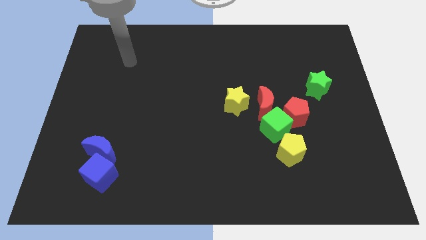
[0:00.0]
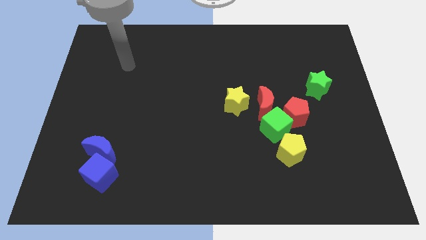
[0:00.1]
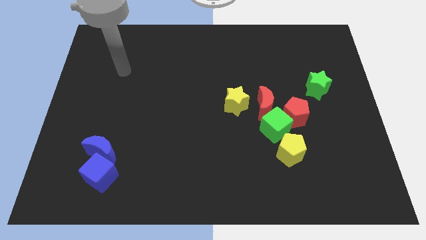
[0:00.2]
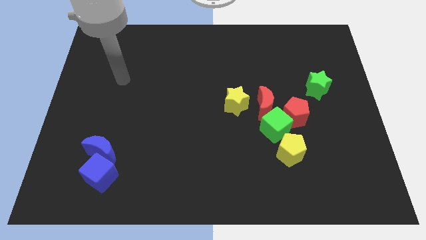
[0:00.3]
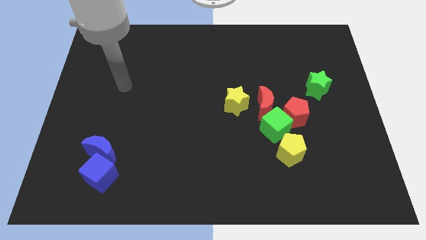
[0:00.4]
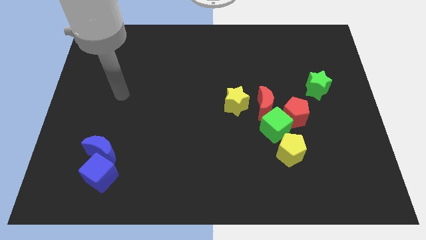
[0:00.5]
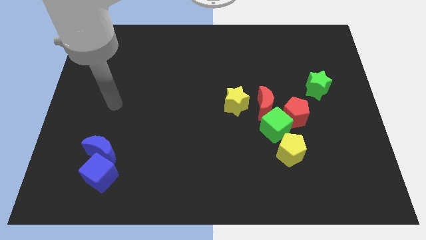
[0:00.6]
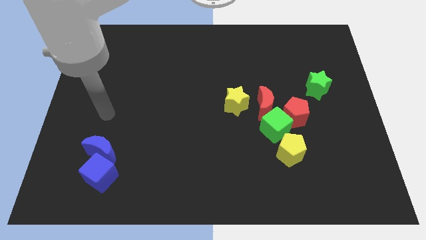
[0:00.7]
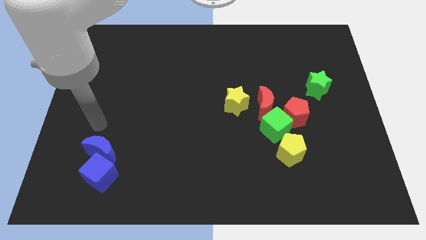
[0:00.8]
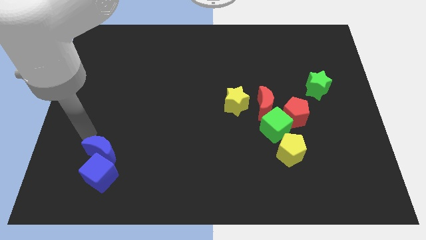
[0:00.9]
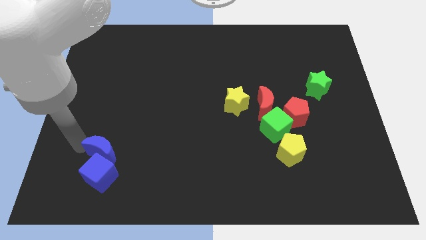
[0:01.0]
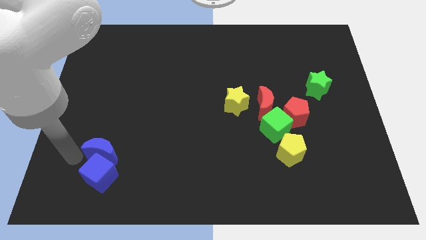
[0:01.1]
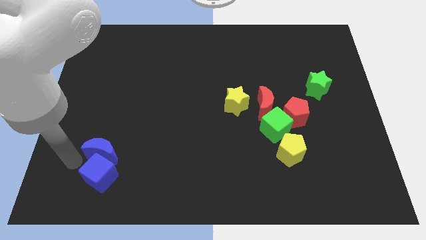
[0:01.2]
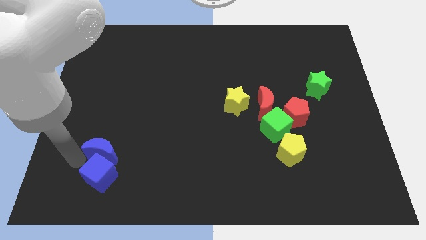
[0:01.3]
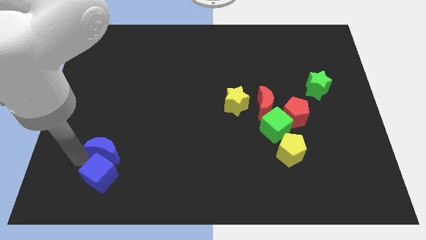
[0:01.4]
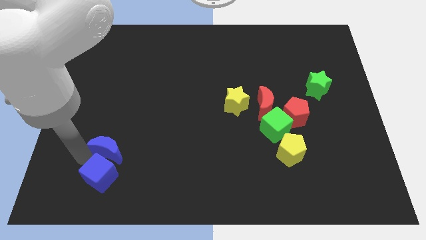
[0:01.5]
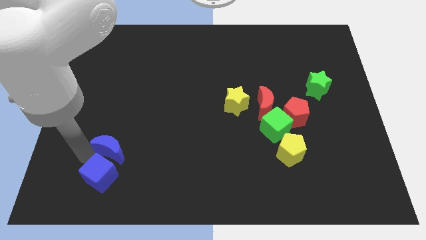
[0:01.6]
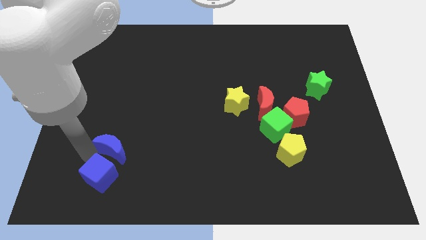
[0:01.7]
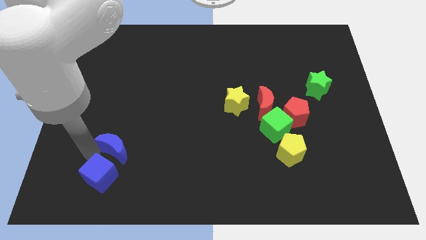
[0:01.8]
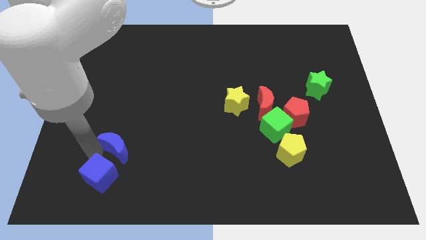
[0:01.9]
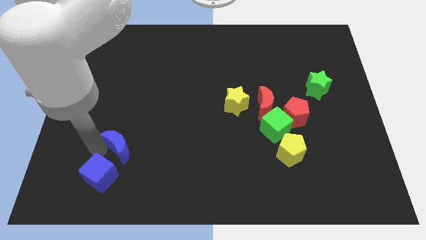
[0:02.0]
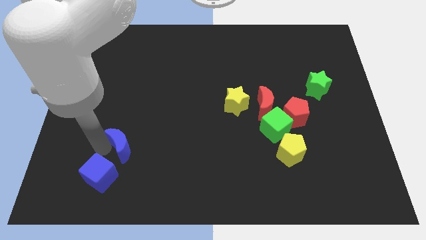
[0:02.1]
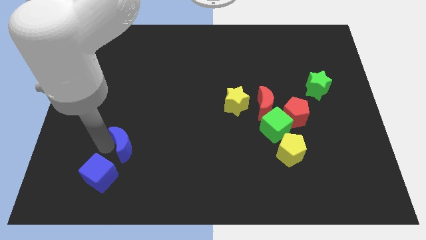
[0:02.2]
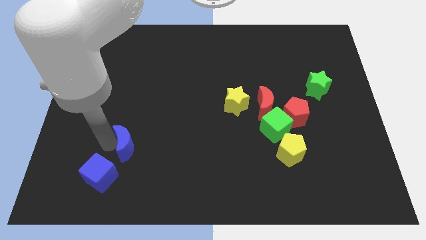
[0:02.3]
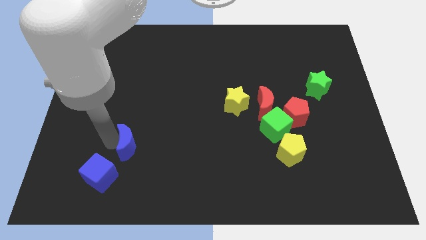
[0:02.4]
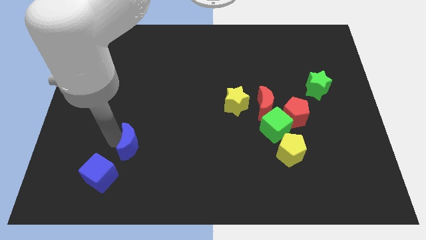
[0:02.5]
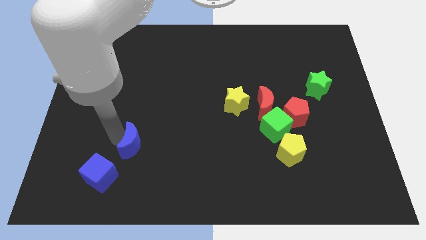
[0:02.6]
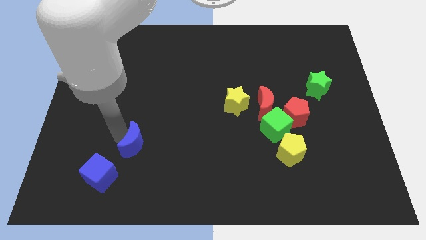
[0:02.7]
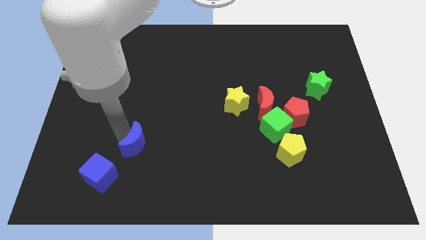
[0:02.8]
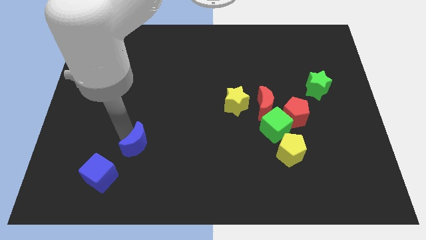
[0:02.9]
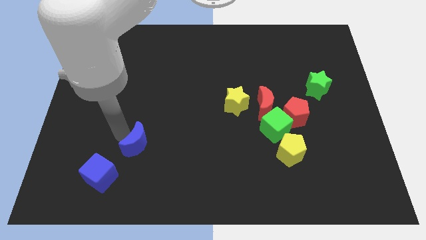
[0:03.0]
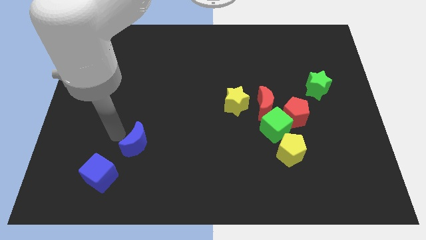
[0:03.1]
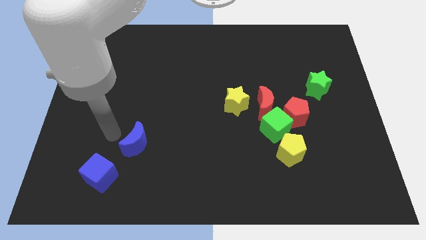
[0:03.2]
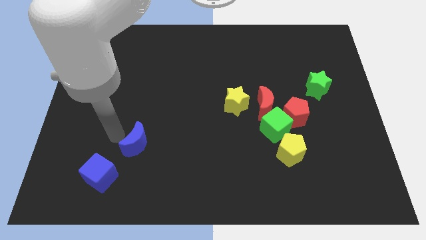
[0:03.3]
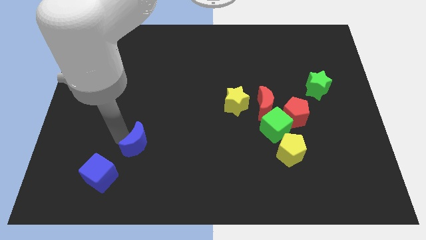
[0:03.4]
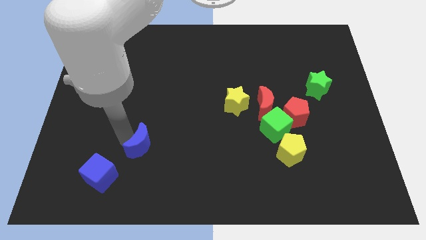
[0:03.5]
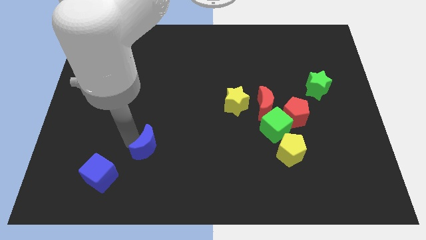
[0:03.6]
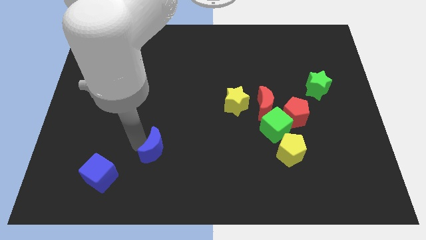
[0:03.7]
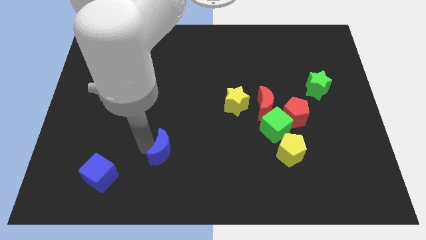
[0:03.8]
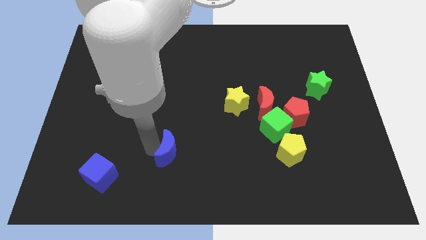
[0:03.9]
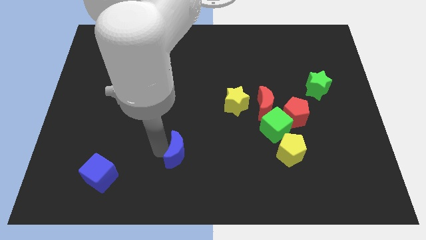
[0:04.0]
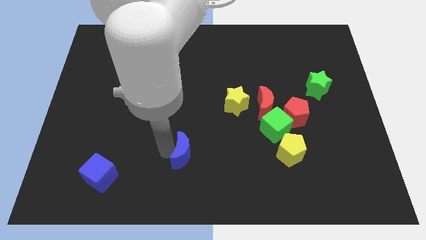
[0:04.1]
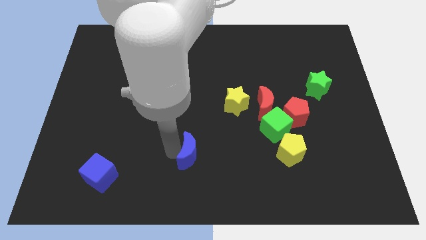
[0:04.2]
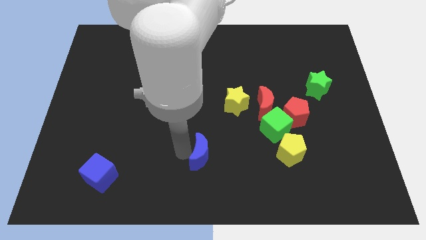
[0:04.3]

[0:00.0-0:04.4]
push the blue moon right

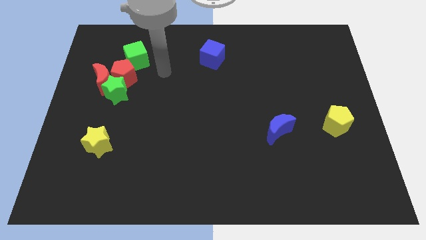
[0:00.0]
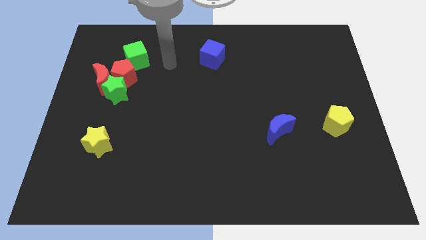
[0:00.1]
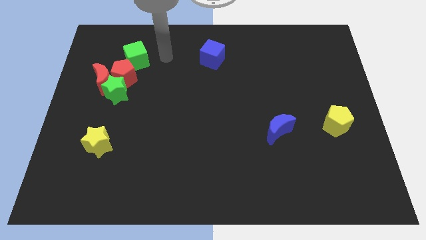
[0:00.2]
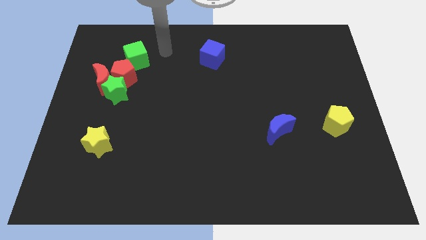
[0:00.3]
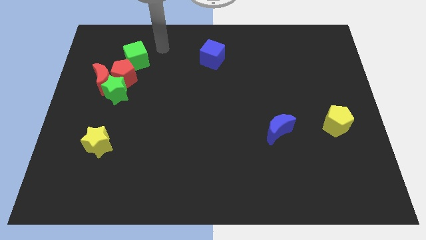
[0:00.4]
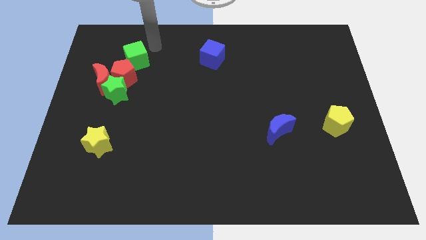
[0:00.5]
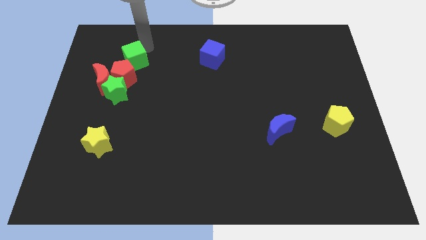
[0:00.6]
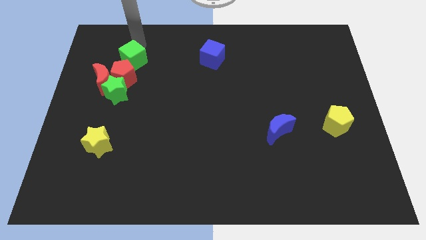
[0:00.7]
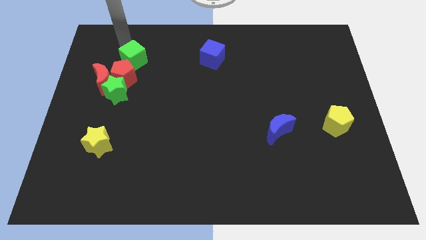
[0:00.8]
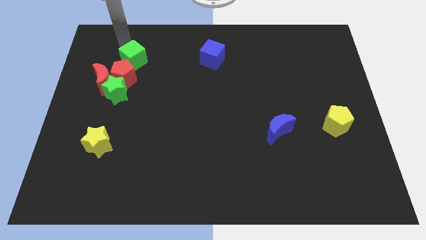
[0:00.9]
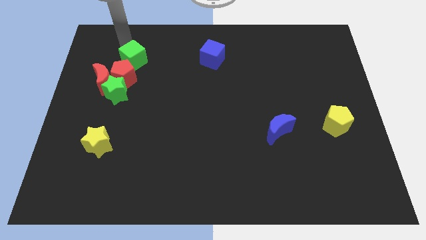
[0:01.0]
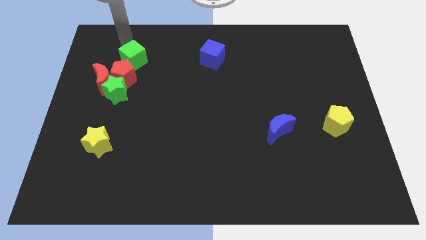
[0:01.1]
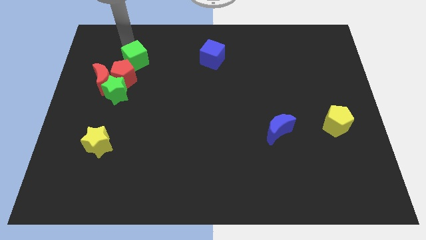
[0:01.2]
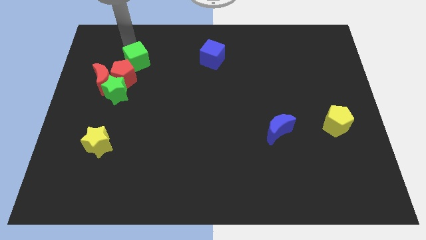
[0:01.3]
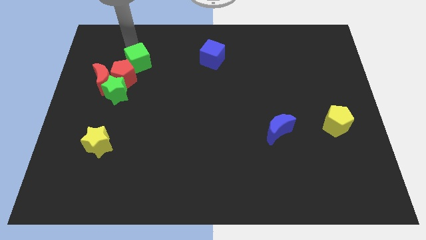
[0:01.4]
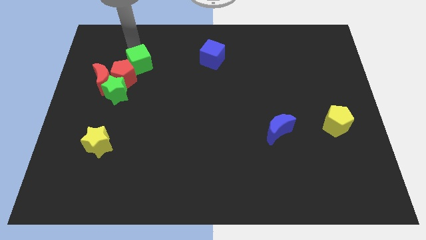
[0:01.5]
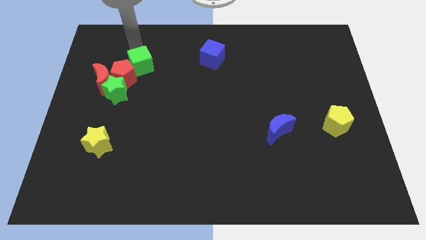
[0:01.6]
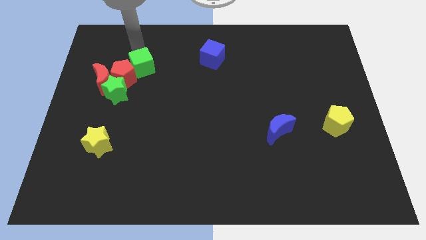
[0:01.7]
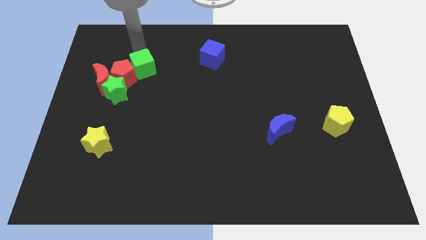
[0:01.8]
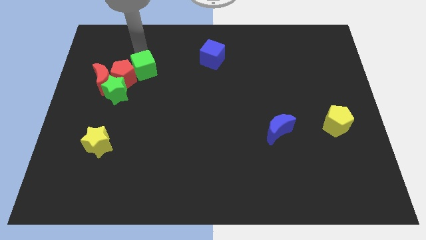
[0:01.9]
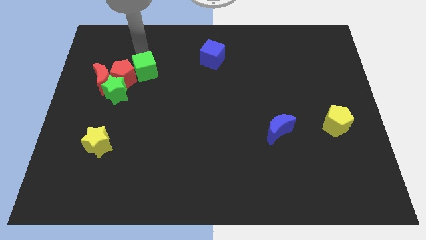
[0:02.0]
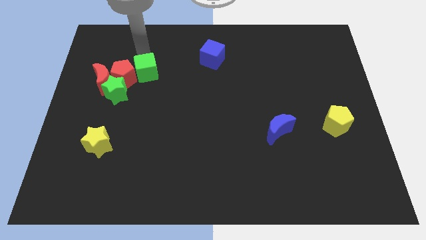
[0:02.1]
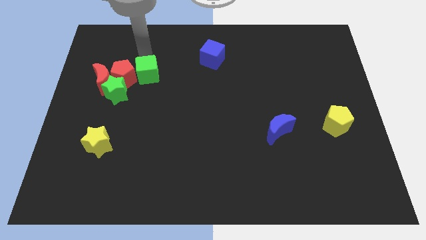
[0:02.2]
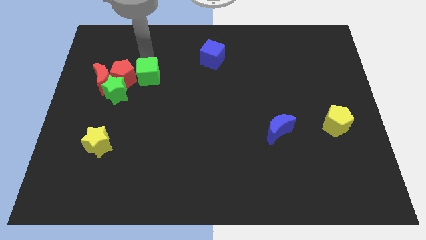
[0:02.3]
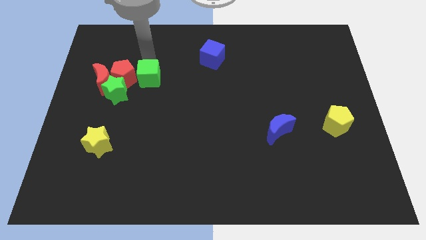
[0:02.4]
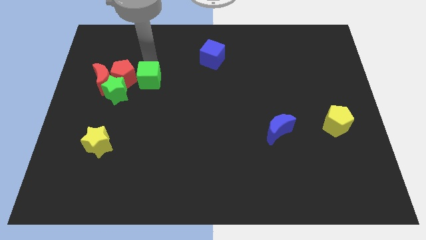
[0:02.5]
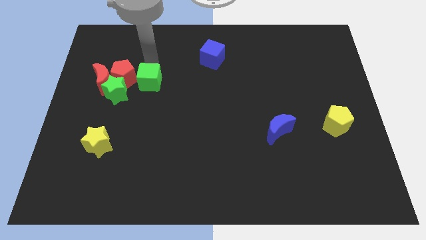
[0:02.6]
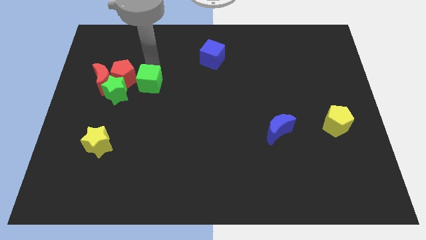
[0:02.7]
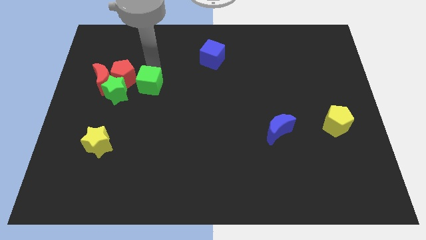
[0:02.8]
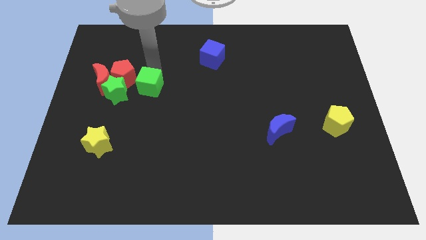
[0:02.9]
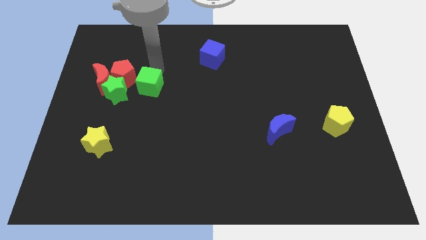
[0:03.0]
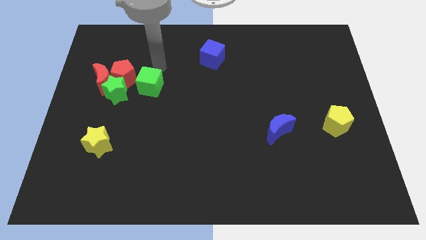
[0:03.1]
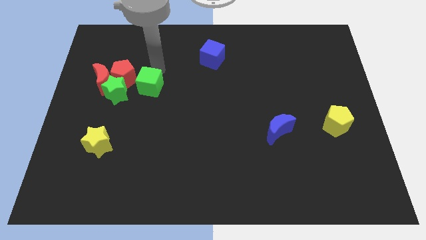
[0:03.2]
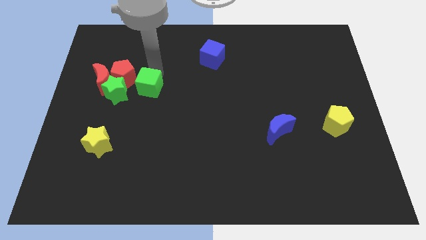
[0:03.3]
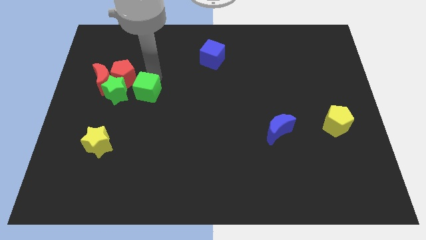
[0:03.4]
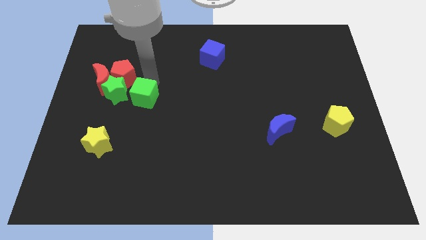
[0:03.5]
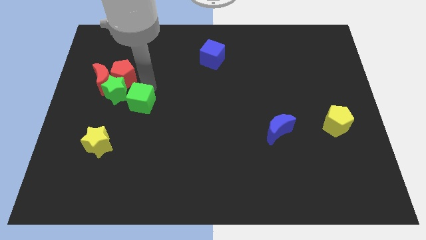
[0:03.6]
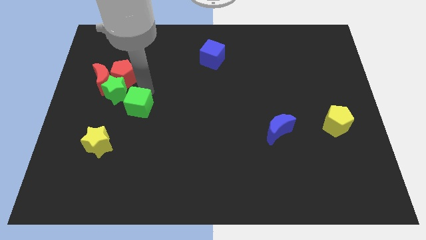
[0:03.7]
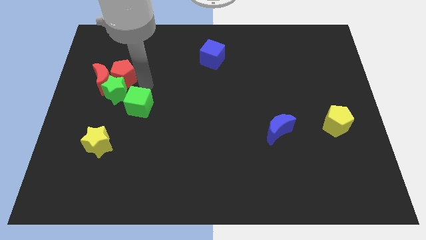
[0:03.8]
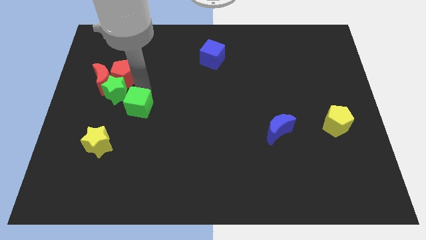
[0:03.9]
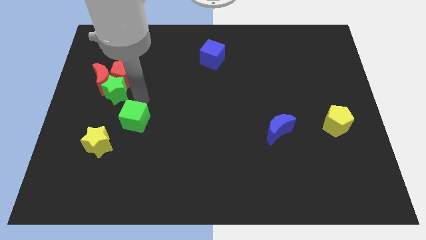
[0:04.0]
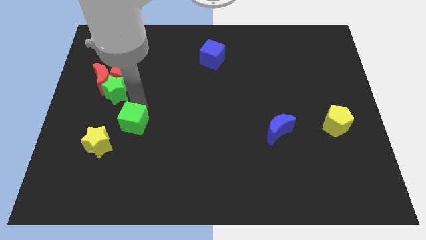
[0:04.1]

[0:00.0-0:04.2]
push the green cube down
